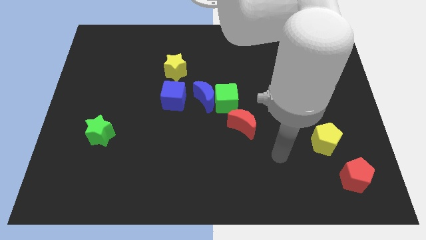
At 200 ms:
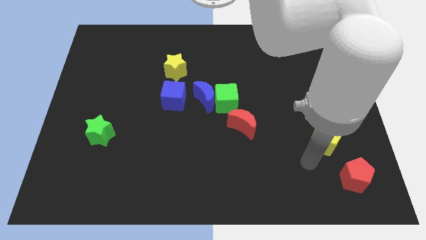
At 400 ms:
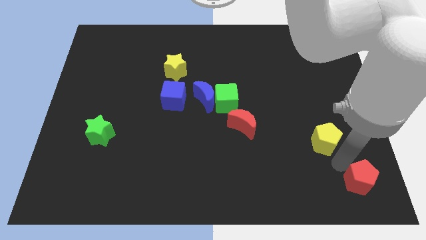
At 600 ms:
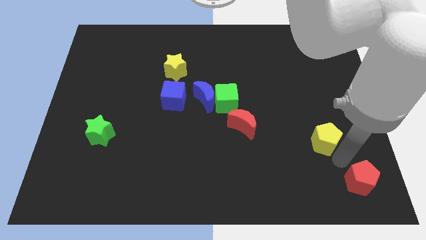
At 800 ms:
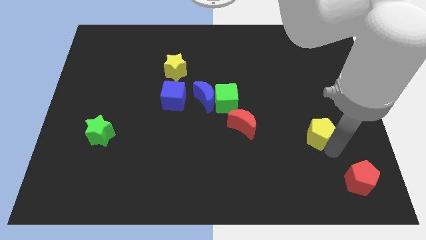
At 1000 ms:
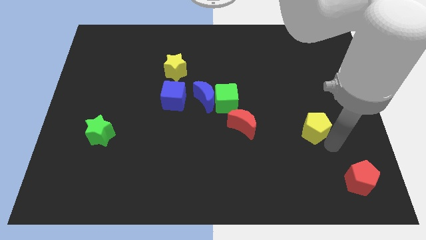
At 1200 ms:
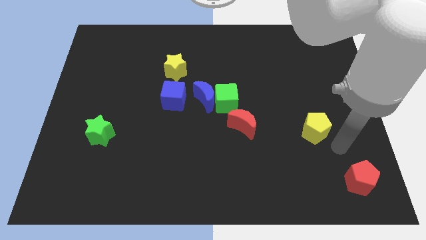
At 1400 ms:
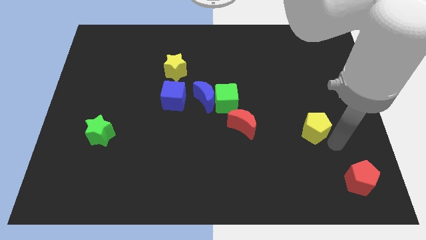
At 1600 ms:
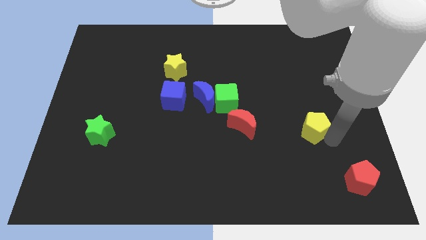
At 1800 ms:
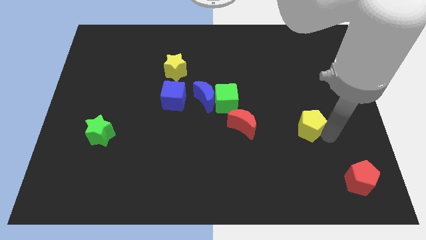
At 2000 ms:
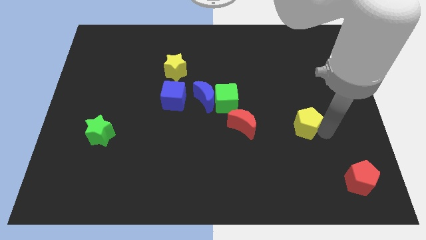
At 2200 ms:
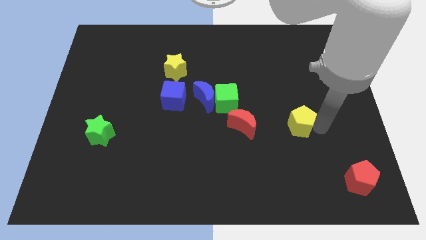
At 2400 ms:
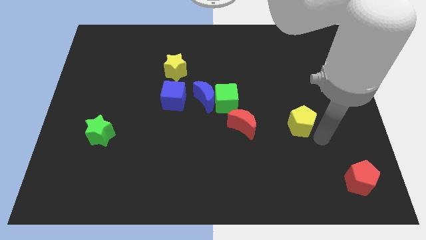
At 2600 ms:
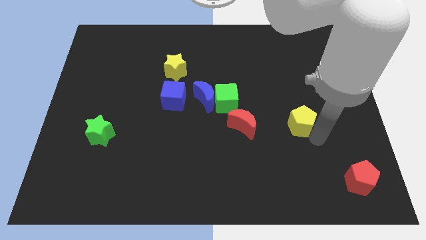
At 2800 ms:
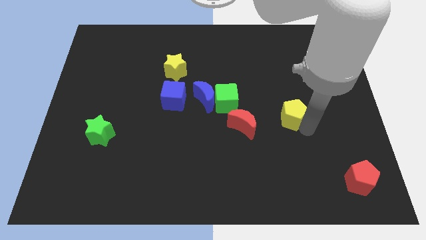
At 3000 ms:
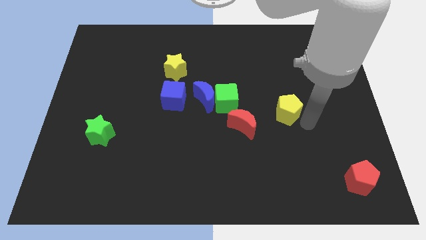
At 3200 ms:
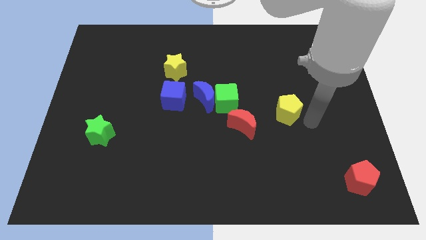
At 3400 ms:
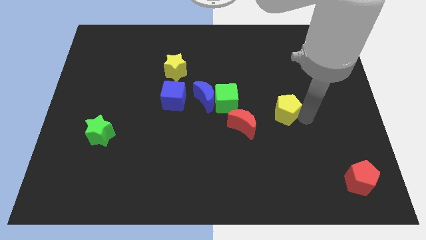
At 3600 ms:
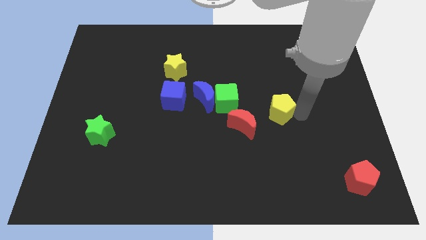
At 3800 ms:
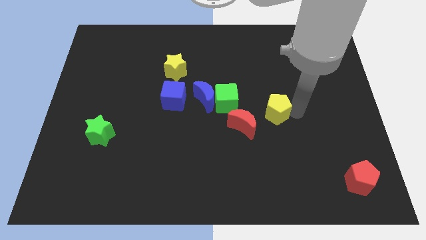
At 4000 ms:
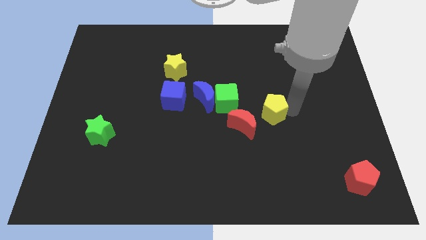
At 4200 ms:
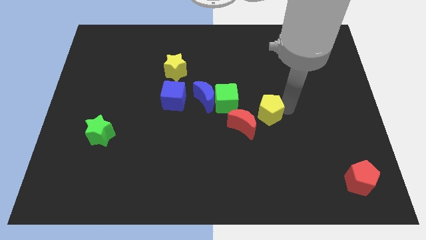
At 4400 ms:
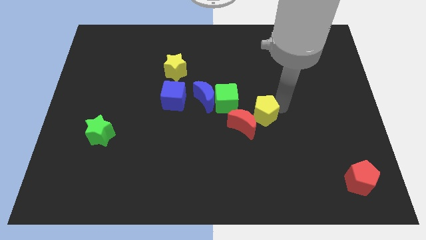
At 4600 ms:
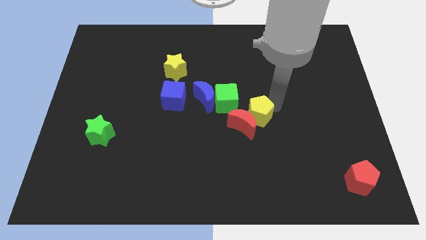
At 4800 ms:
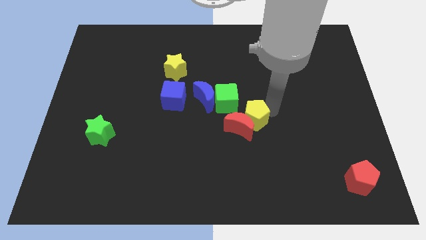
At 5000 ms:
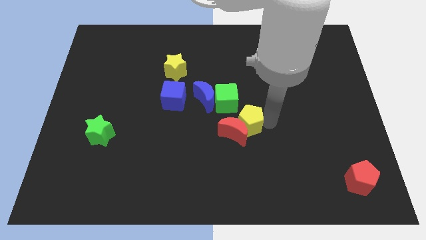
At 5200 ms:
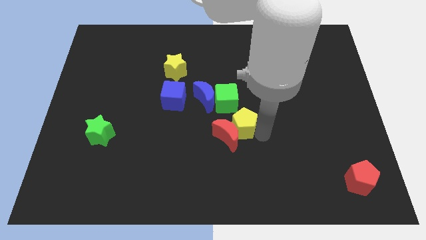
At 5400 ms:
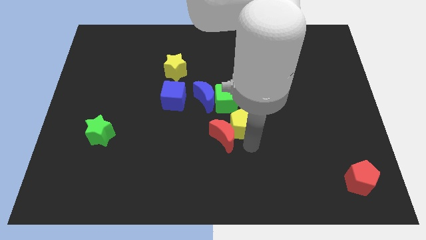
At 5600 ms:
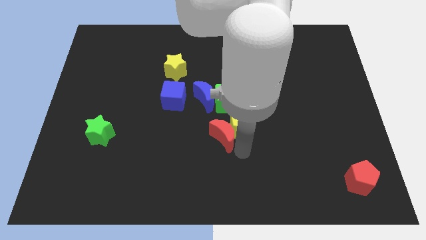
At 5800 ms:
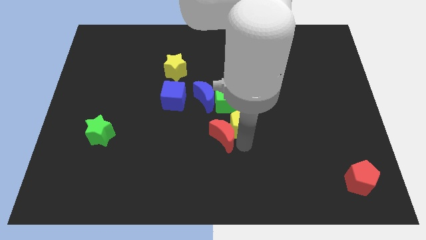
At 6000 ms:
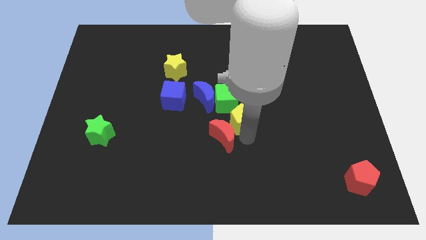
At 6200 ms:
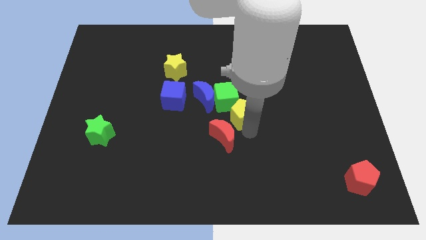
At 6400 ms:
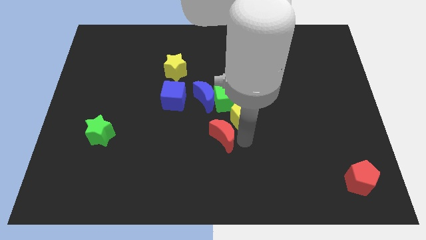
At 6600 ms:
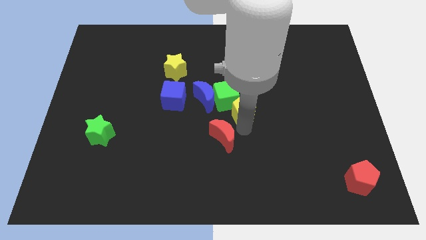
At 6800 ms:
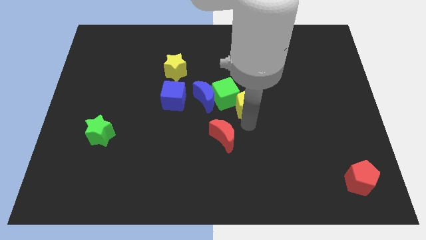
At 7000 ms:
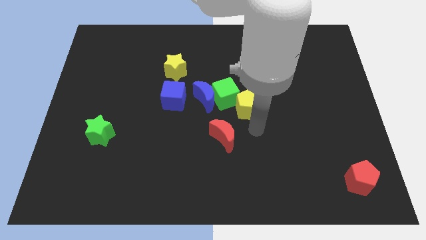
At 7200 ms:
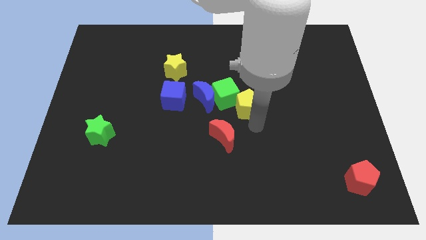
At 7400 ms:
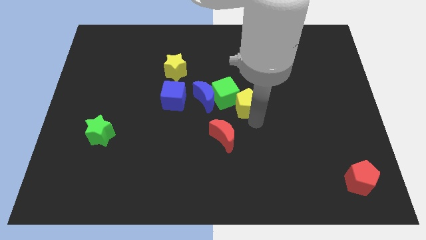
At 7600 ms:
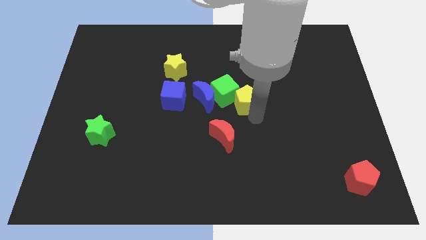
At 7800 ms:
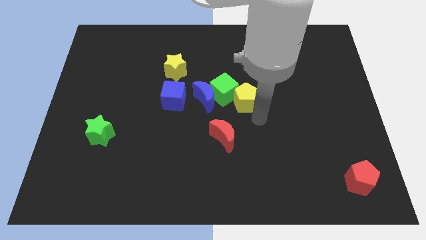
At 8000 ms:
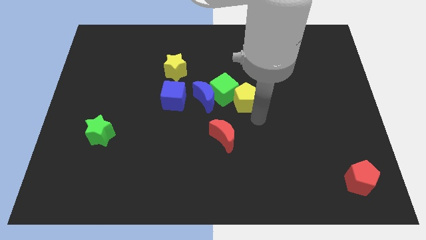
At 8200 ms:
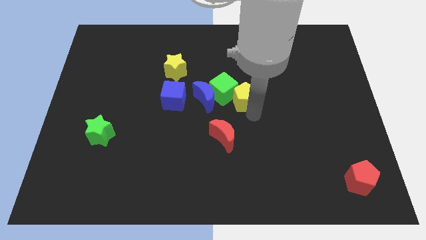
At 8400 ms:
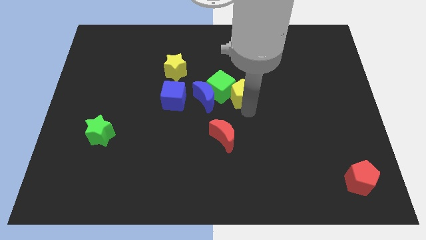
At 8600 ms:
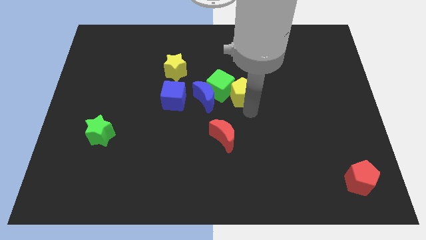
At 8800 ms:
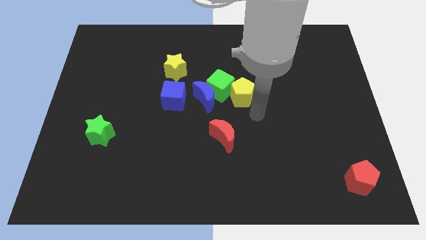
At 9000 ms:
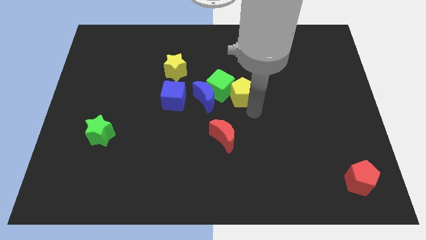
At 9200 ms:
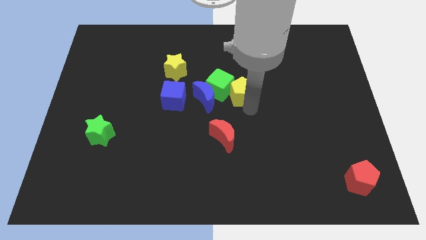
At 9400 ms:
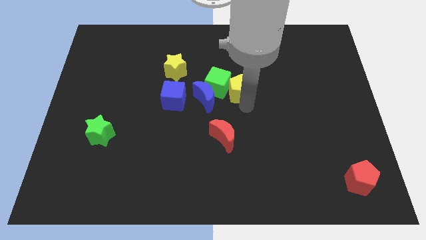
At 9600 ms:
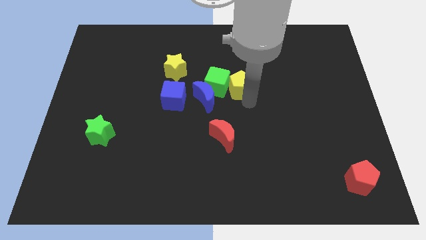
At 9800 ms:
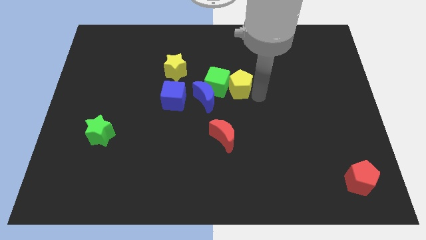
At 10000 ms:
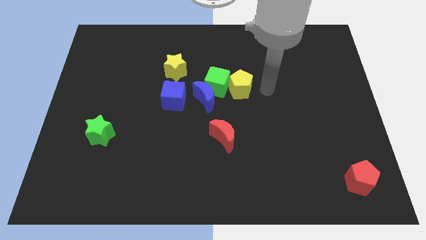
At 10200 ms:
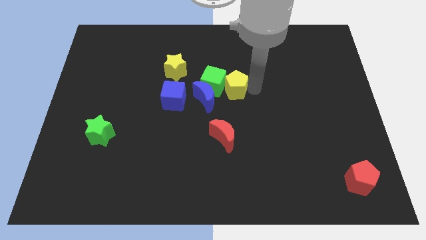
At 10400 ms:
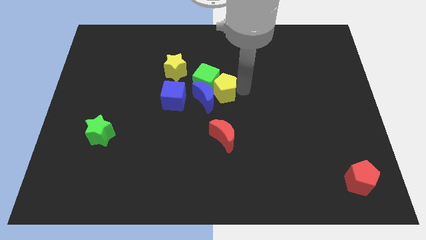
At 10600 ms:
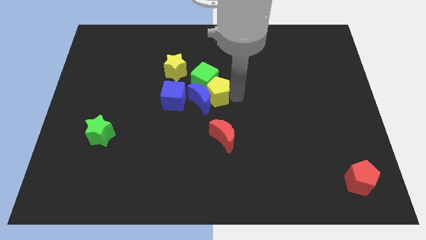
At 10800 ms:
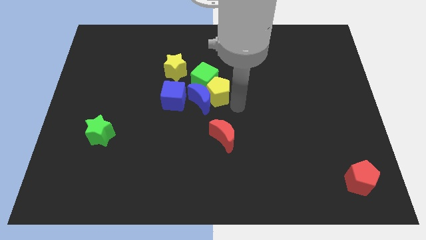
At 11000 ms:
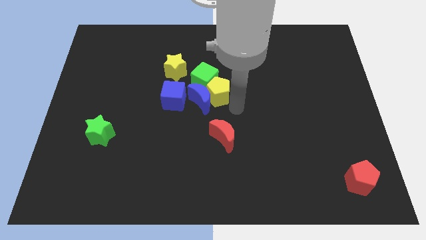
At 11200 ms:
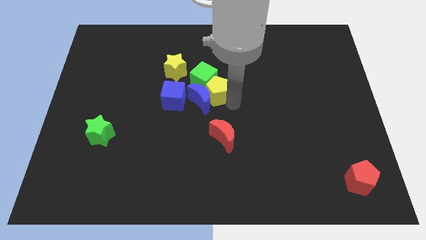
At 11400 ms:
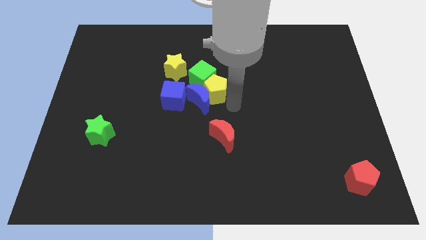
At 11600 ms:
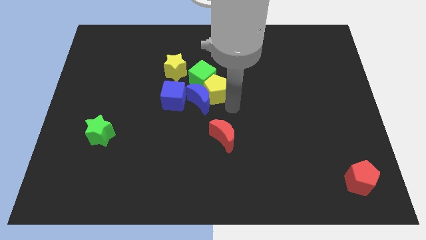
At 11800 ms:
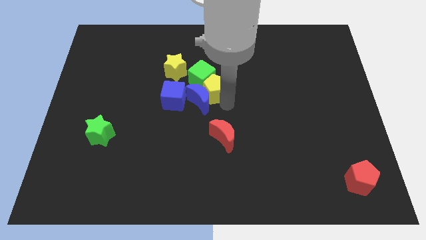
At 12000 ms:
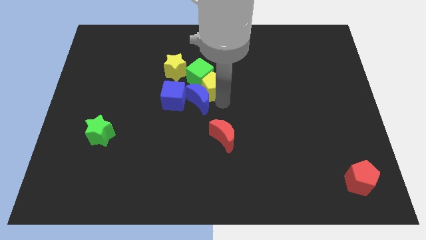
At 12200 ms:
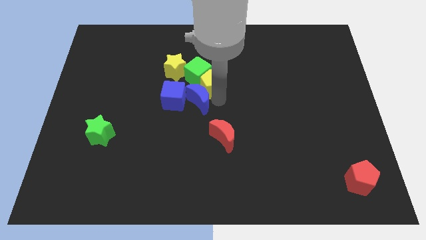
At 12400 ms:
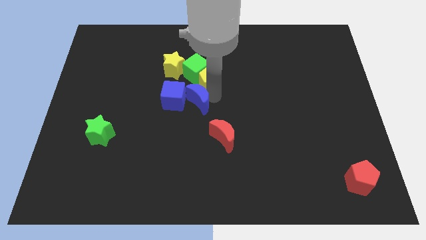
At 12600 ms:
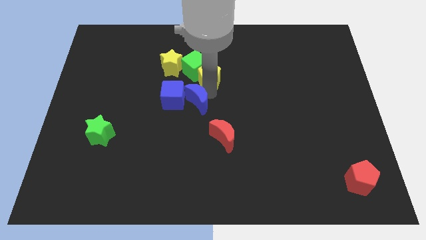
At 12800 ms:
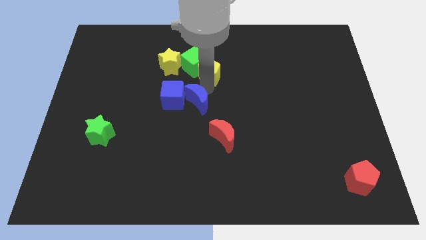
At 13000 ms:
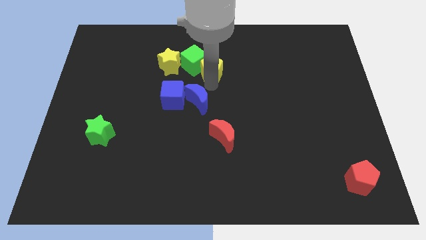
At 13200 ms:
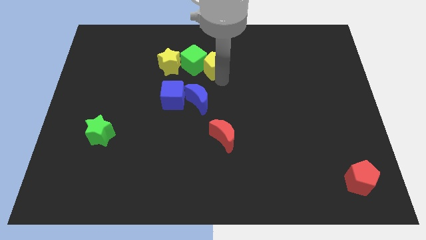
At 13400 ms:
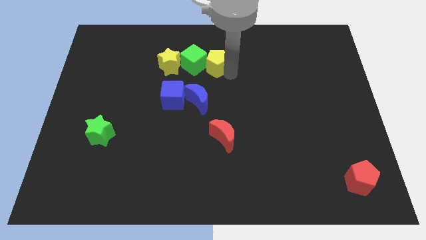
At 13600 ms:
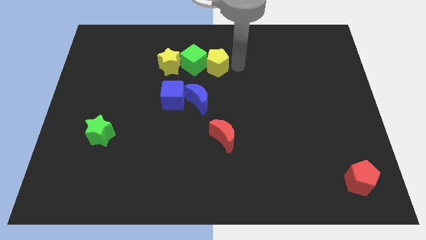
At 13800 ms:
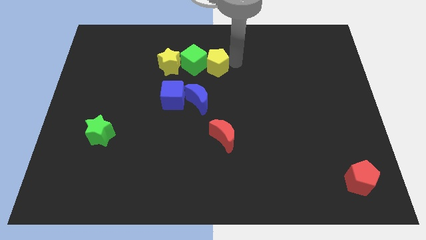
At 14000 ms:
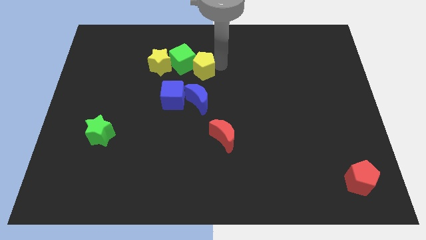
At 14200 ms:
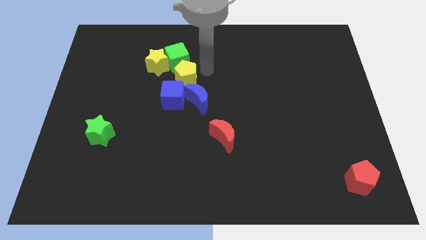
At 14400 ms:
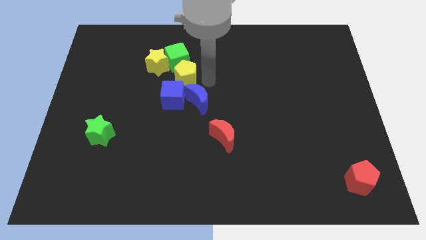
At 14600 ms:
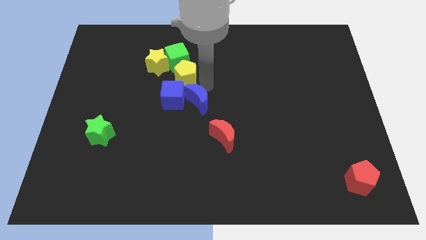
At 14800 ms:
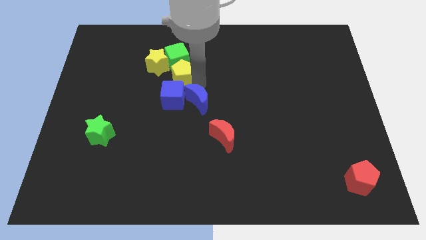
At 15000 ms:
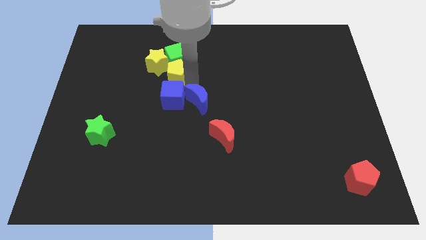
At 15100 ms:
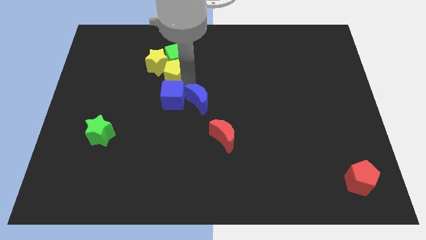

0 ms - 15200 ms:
put the yellow pentagon to the yellow star
